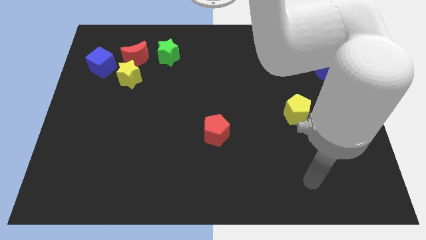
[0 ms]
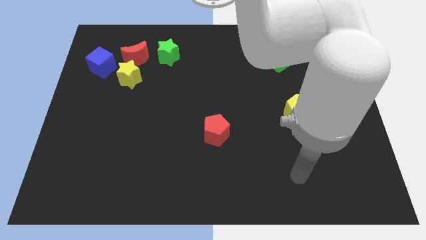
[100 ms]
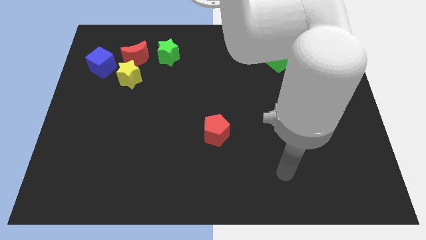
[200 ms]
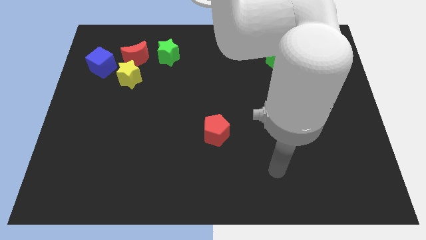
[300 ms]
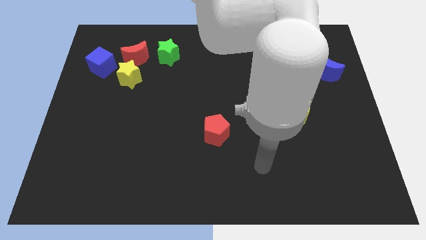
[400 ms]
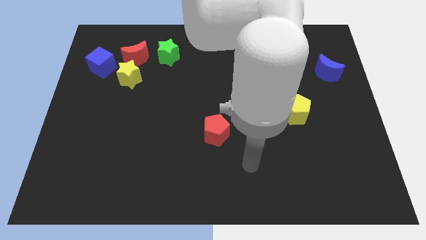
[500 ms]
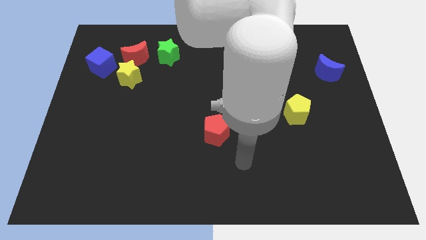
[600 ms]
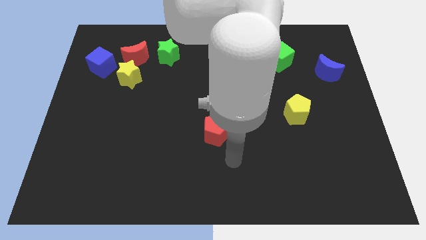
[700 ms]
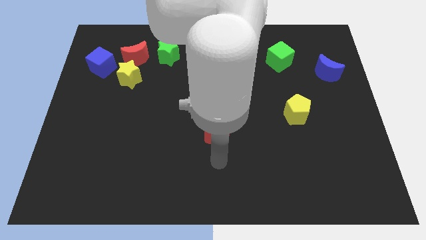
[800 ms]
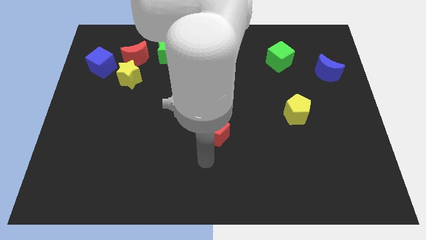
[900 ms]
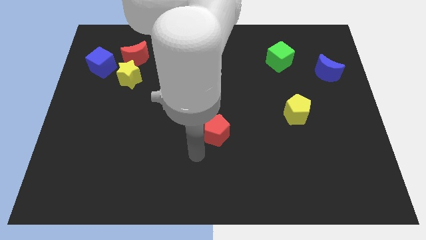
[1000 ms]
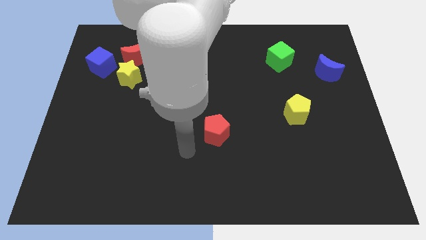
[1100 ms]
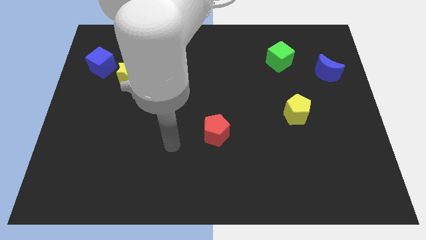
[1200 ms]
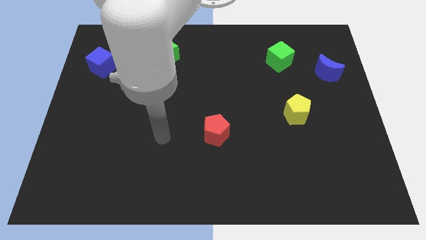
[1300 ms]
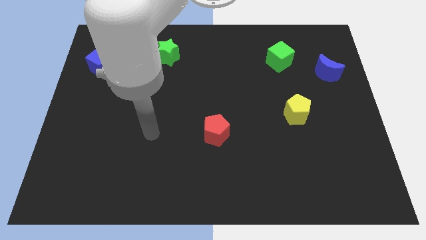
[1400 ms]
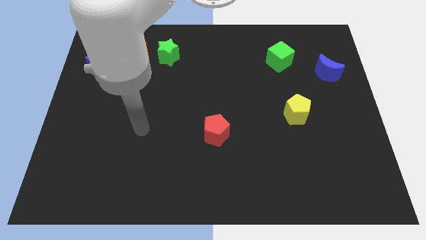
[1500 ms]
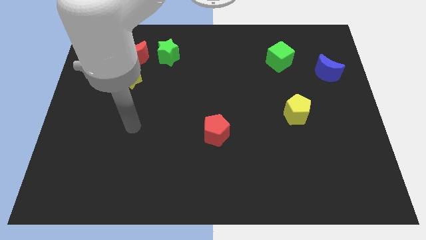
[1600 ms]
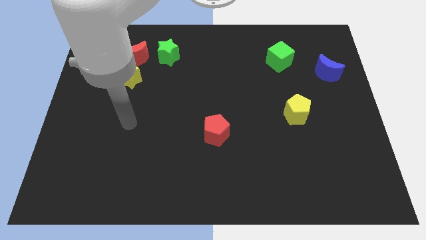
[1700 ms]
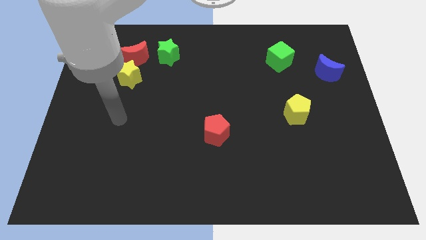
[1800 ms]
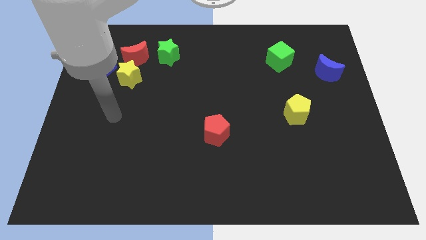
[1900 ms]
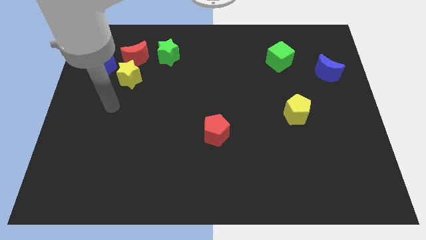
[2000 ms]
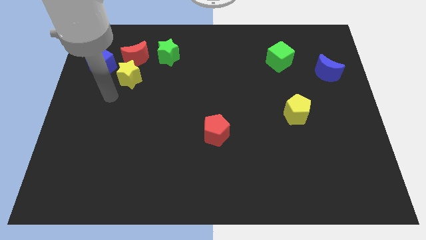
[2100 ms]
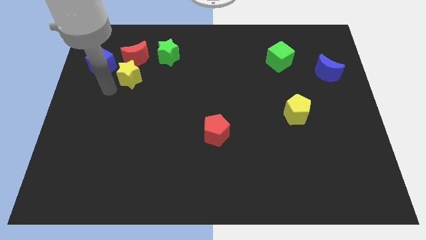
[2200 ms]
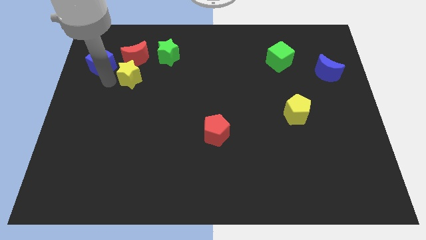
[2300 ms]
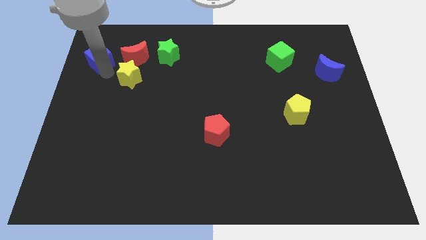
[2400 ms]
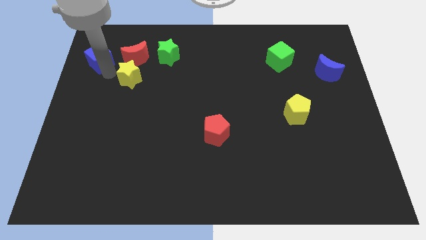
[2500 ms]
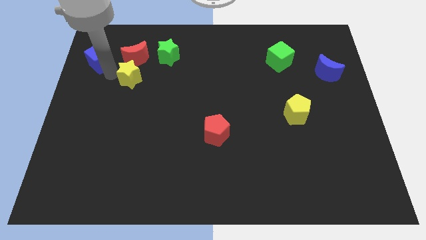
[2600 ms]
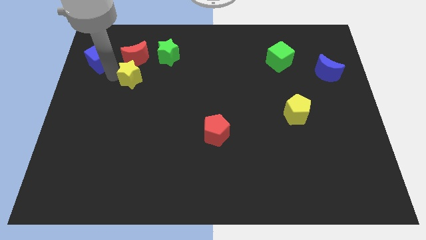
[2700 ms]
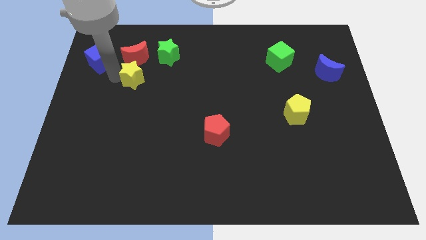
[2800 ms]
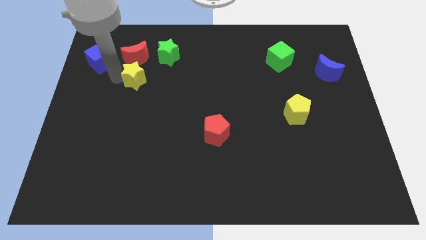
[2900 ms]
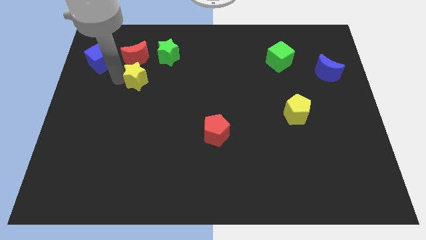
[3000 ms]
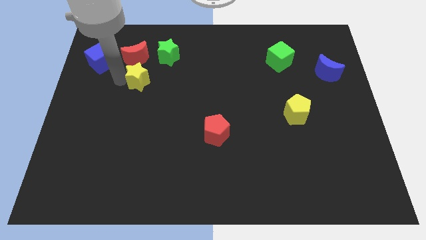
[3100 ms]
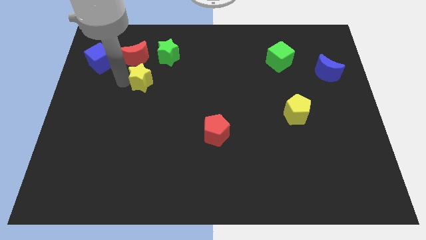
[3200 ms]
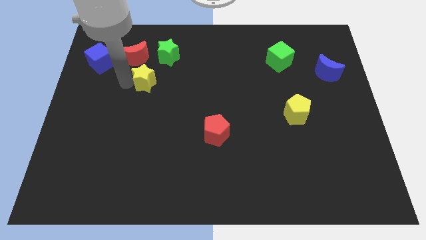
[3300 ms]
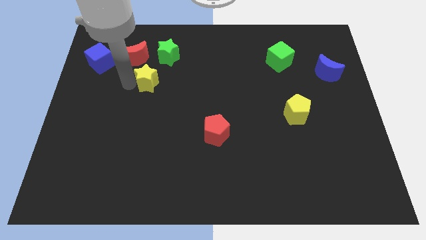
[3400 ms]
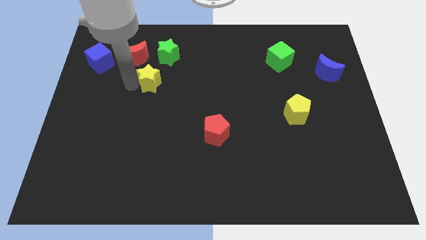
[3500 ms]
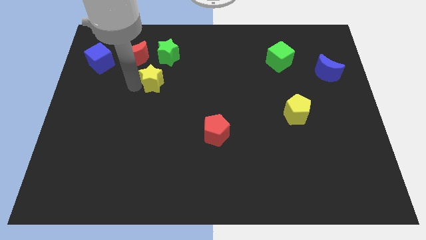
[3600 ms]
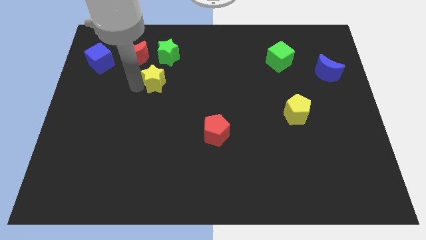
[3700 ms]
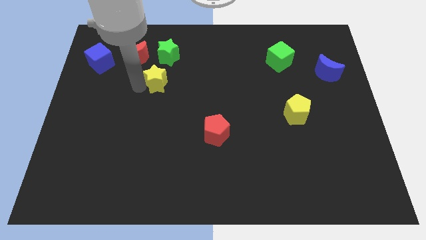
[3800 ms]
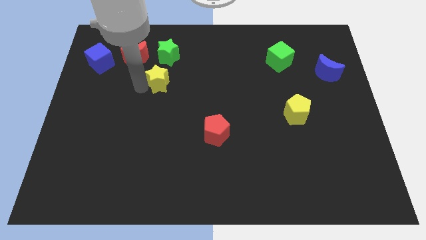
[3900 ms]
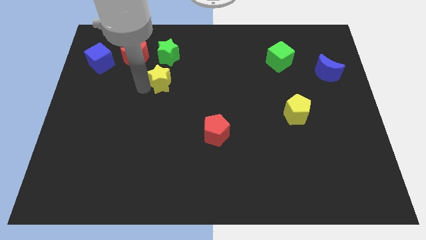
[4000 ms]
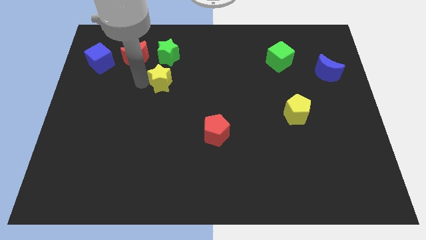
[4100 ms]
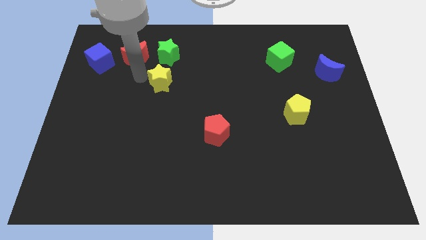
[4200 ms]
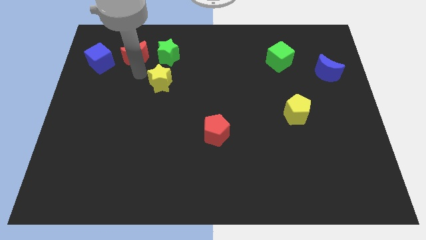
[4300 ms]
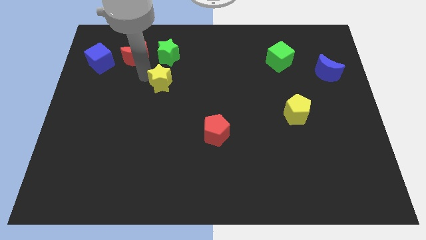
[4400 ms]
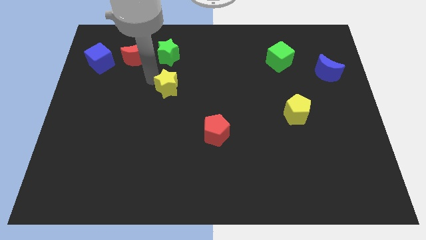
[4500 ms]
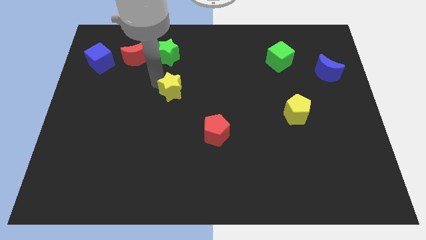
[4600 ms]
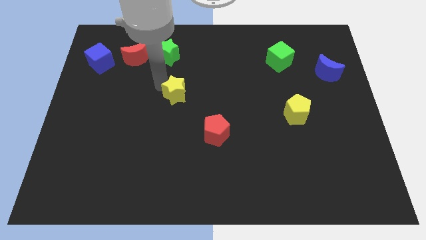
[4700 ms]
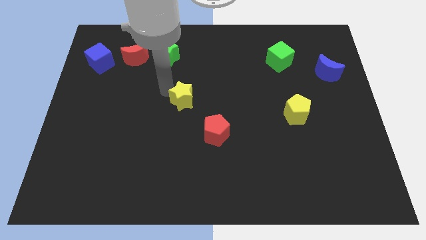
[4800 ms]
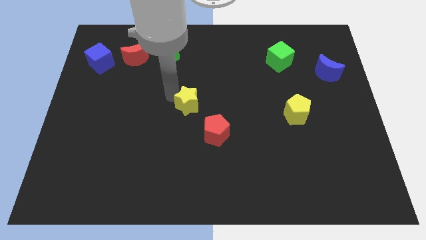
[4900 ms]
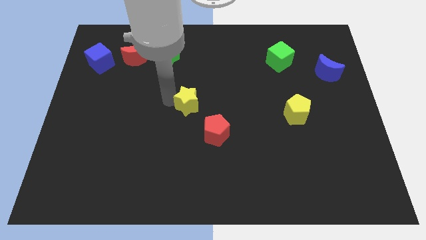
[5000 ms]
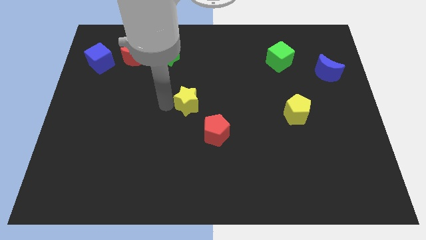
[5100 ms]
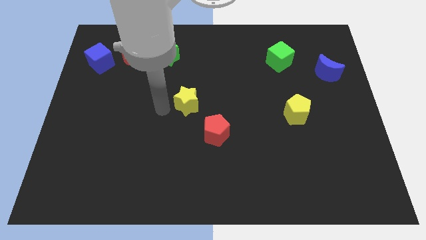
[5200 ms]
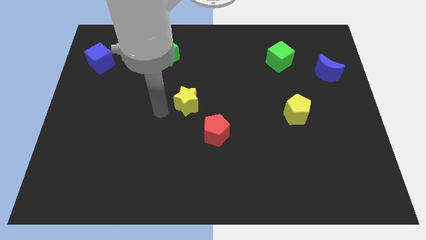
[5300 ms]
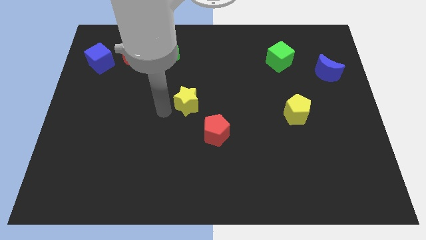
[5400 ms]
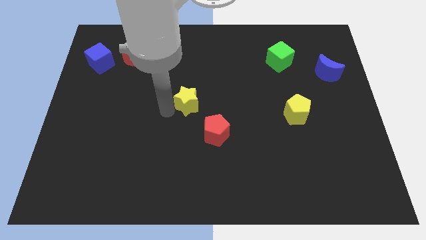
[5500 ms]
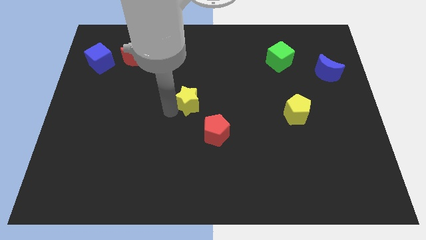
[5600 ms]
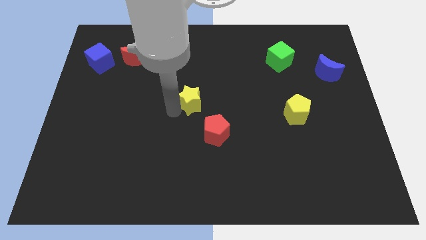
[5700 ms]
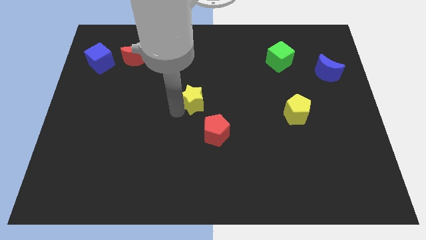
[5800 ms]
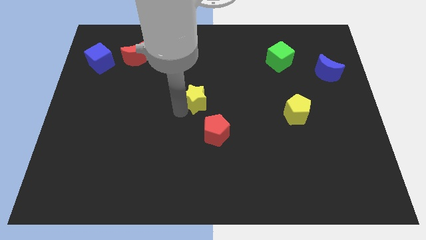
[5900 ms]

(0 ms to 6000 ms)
put the yellow star above the red pentagon

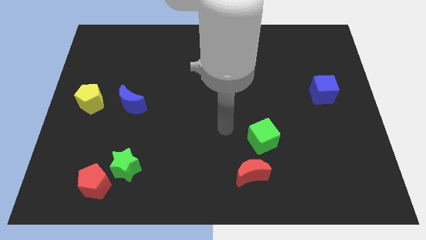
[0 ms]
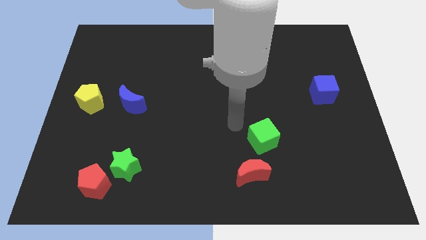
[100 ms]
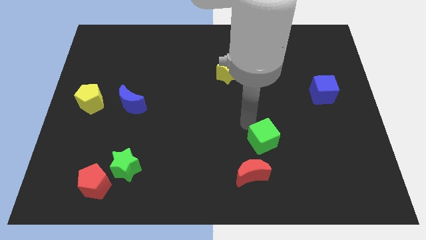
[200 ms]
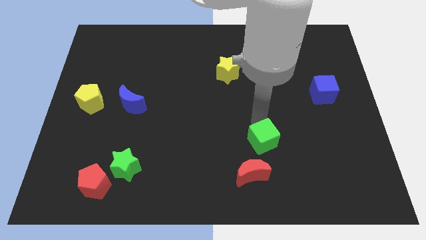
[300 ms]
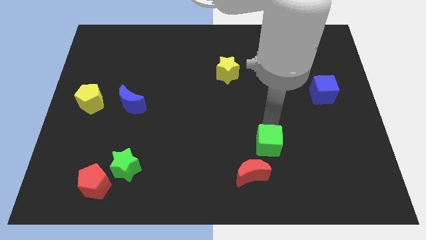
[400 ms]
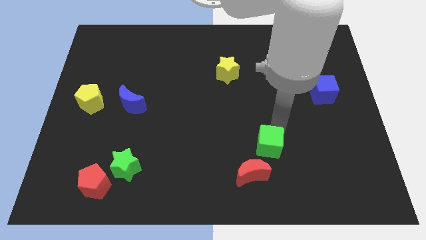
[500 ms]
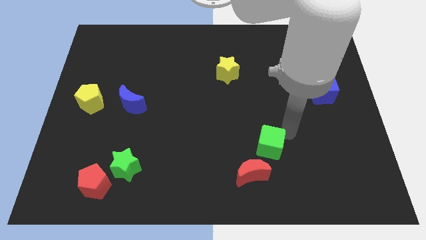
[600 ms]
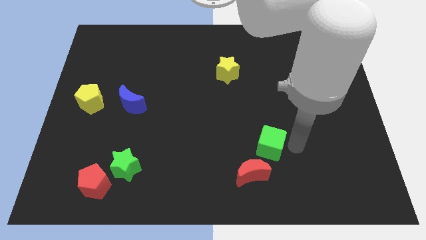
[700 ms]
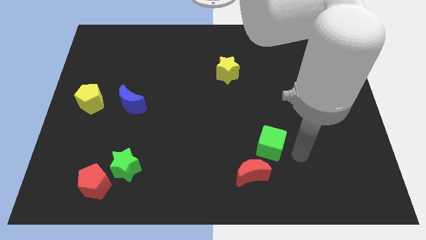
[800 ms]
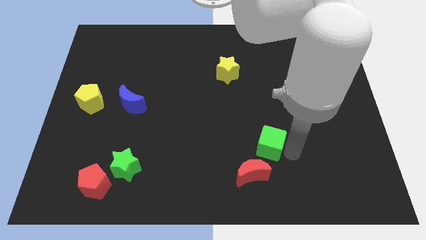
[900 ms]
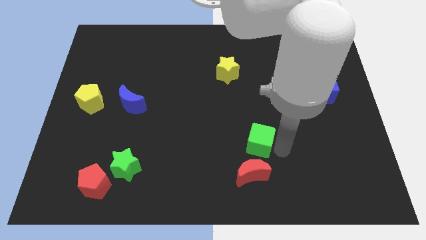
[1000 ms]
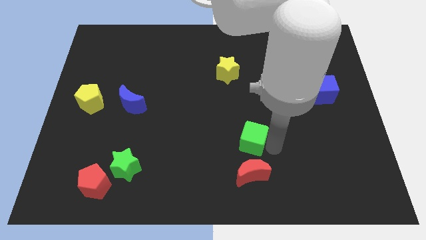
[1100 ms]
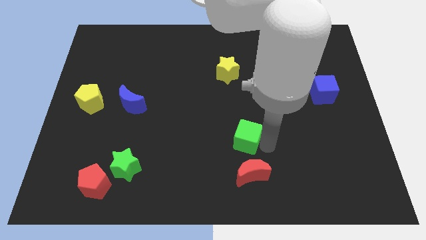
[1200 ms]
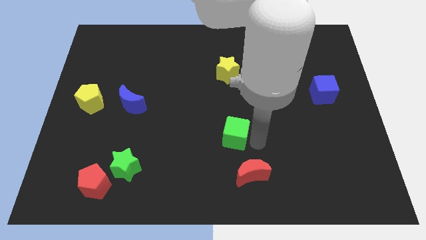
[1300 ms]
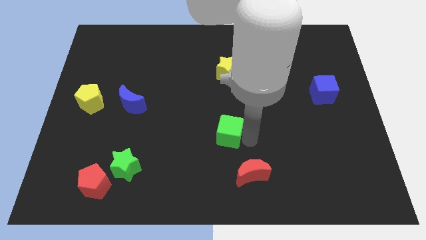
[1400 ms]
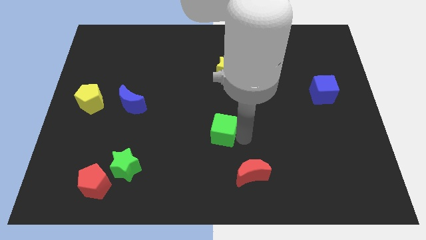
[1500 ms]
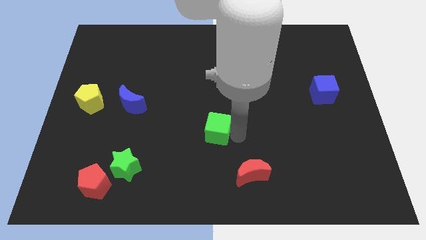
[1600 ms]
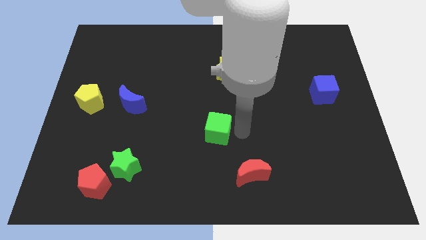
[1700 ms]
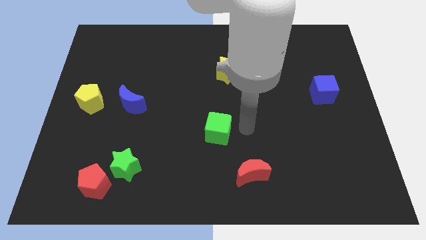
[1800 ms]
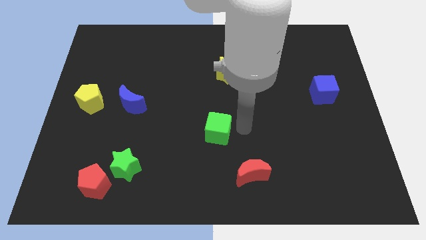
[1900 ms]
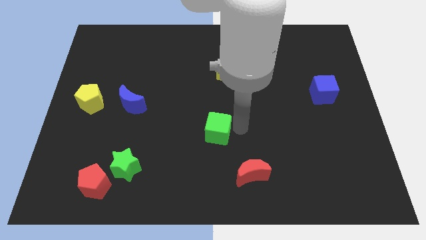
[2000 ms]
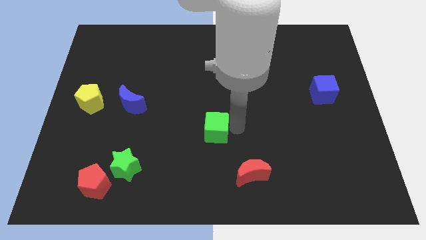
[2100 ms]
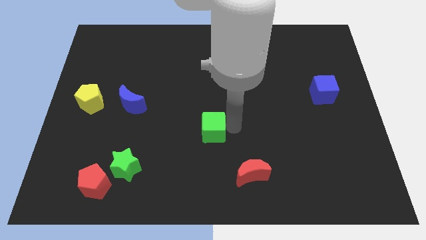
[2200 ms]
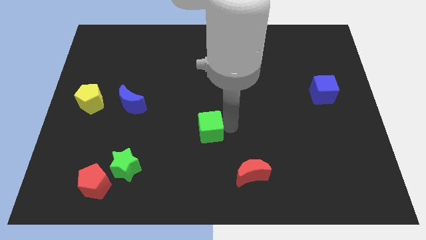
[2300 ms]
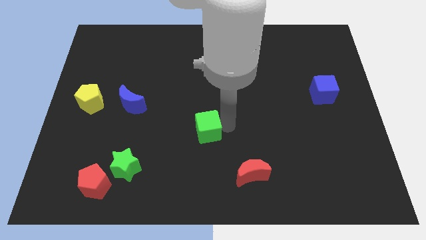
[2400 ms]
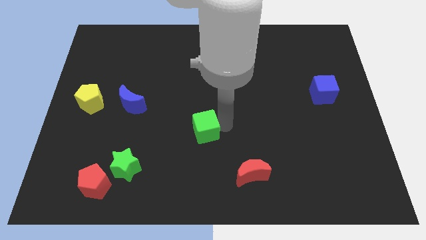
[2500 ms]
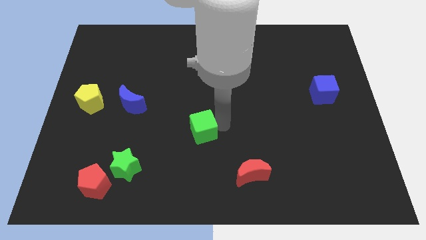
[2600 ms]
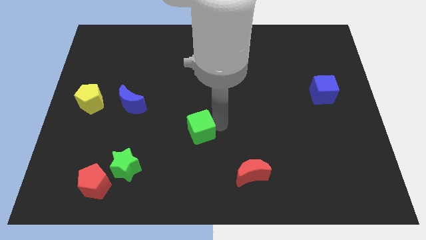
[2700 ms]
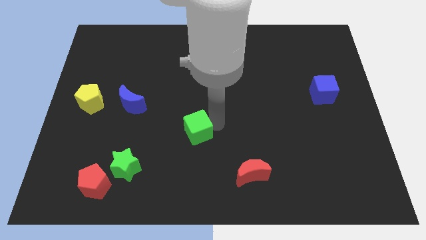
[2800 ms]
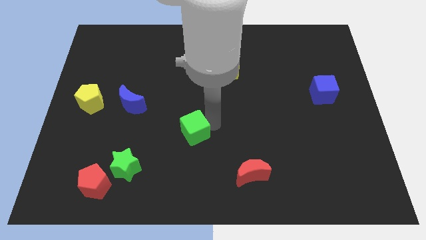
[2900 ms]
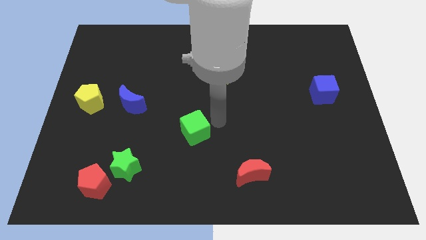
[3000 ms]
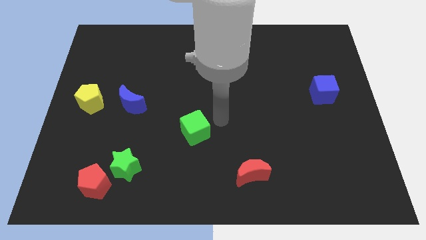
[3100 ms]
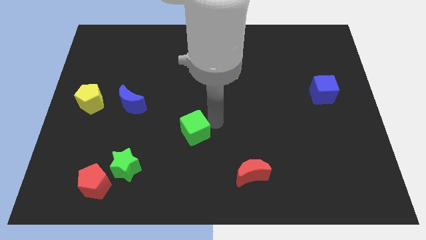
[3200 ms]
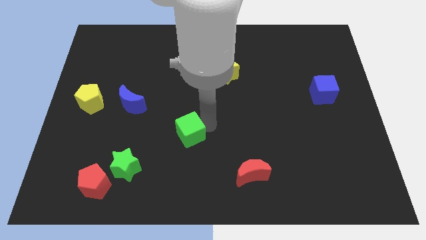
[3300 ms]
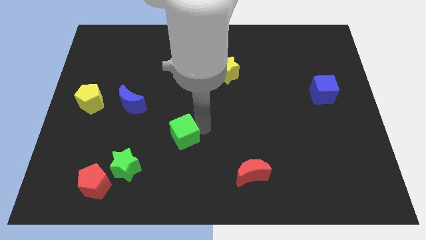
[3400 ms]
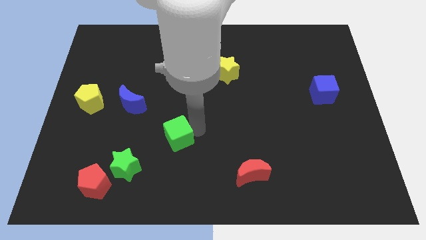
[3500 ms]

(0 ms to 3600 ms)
slide the green cube to the top right of the green star
